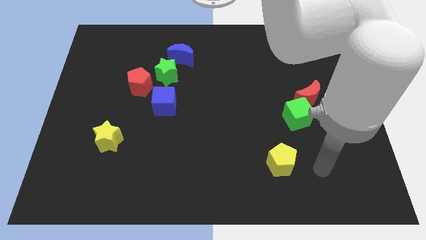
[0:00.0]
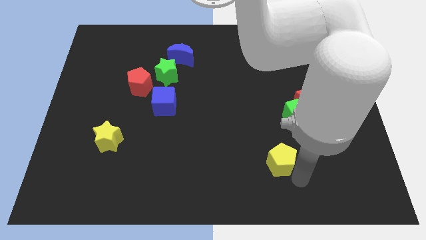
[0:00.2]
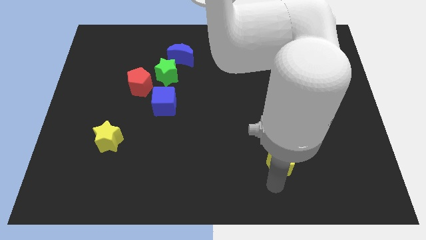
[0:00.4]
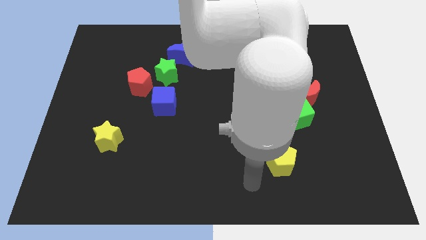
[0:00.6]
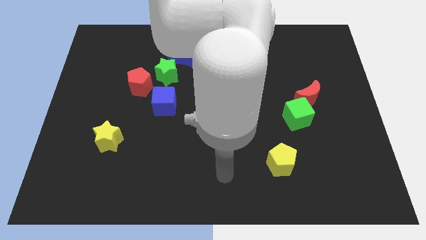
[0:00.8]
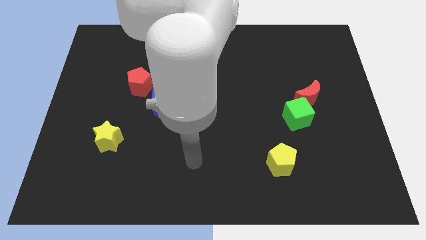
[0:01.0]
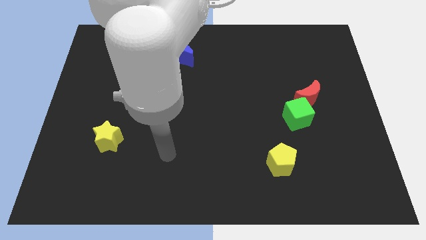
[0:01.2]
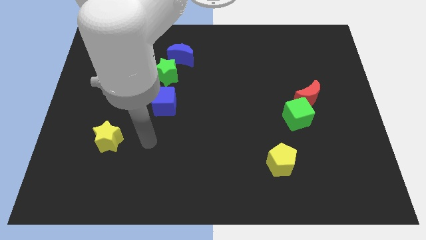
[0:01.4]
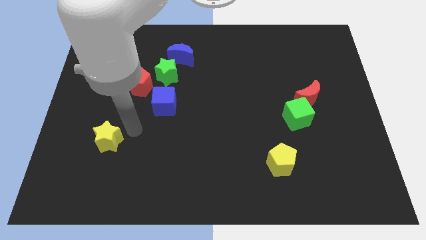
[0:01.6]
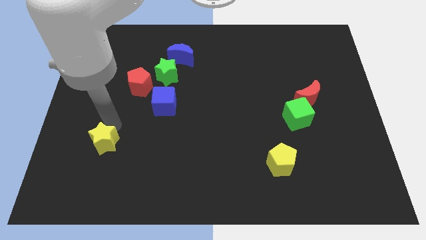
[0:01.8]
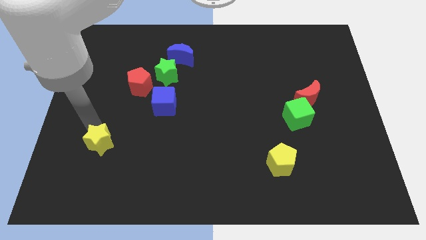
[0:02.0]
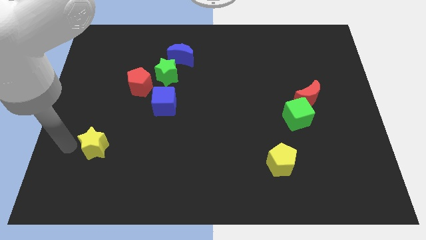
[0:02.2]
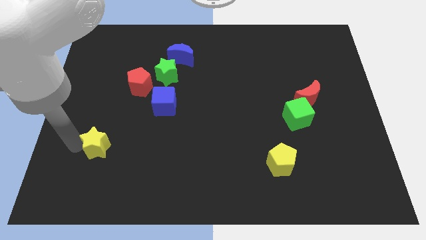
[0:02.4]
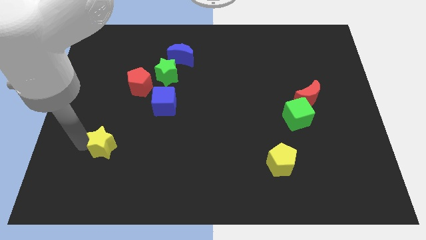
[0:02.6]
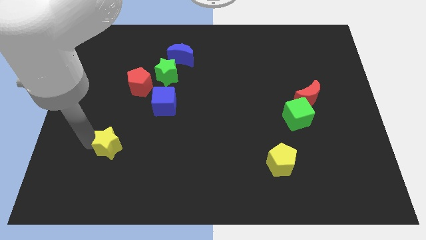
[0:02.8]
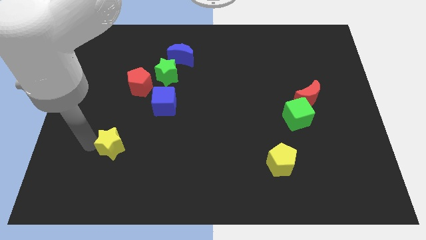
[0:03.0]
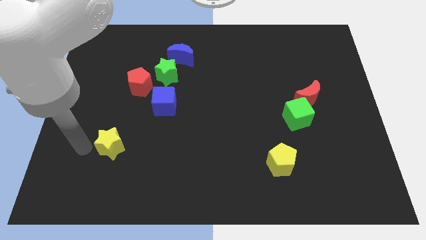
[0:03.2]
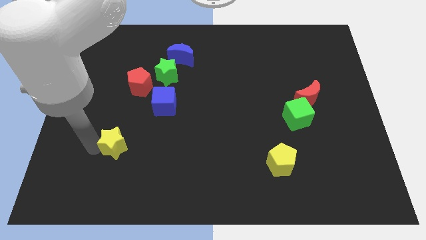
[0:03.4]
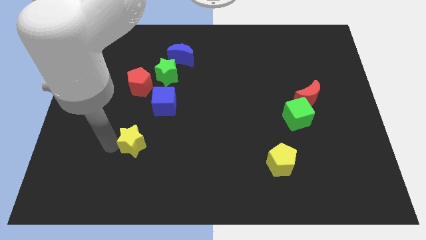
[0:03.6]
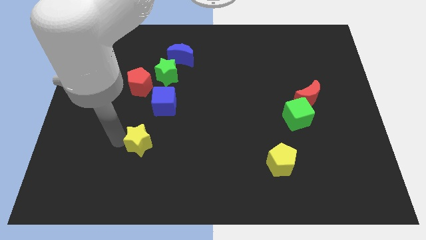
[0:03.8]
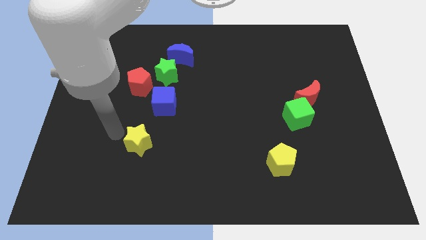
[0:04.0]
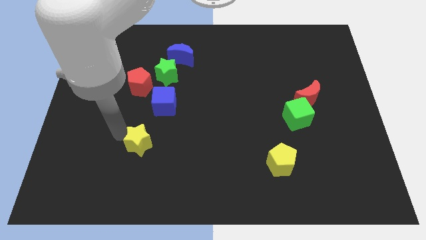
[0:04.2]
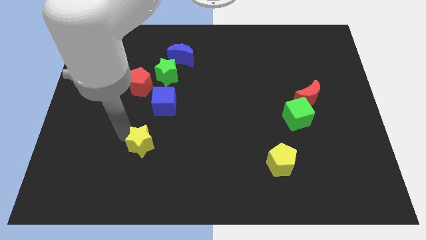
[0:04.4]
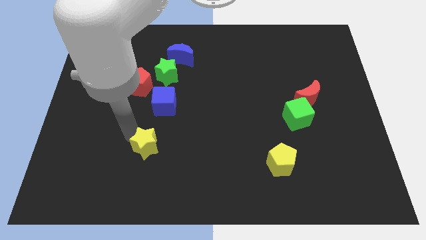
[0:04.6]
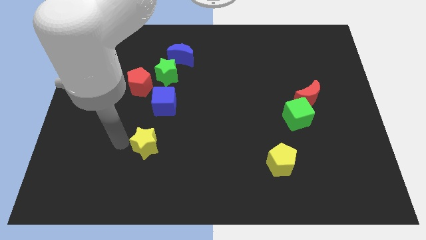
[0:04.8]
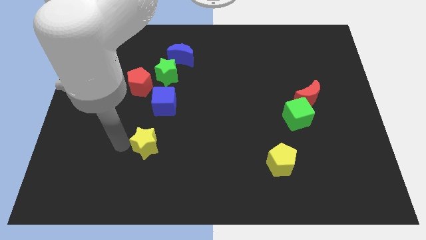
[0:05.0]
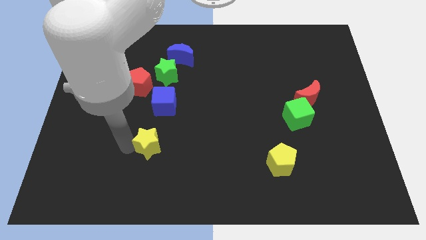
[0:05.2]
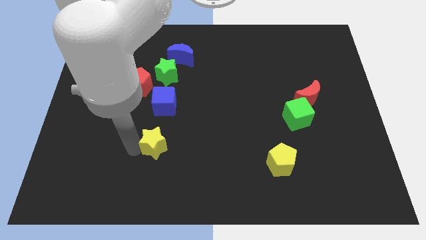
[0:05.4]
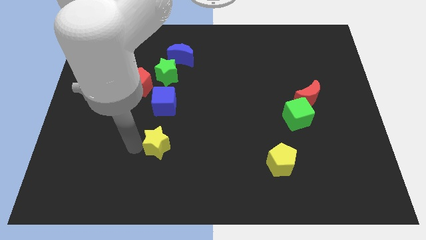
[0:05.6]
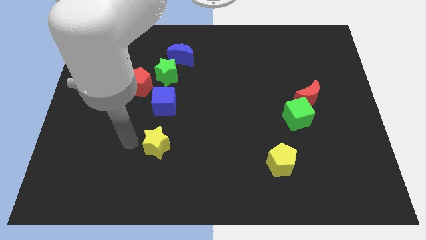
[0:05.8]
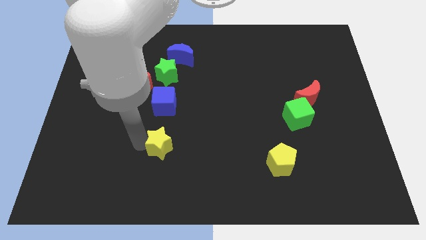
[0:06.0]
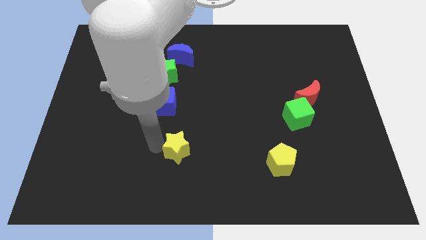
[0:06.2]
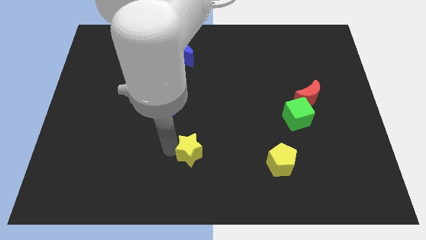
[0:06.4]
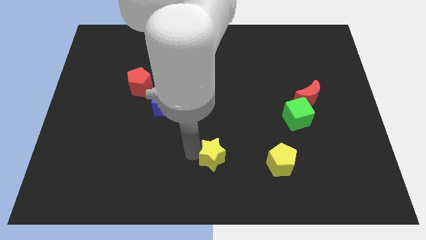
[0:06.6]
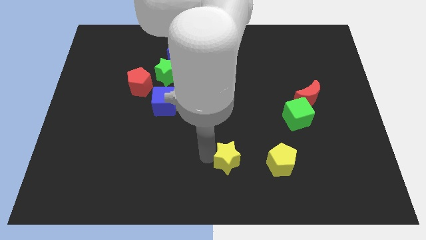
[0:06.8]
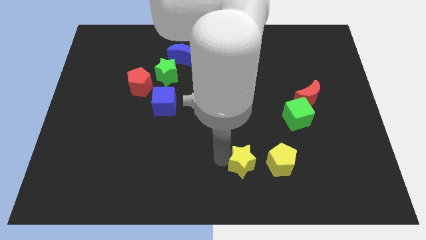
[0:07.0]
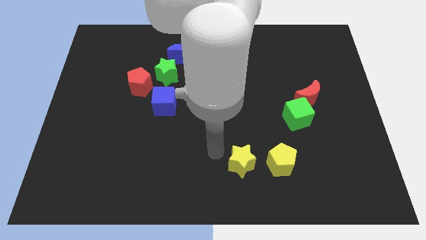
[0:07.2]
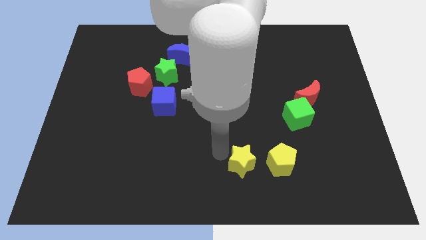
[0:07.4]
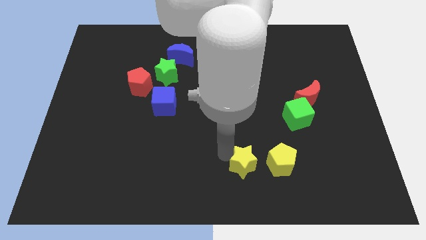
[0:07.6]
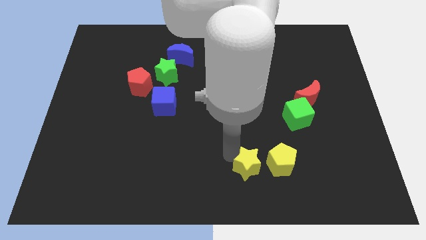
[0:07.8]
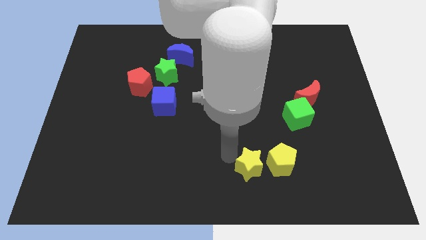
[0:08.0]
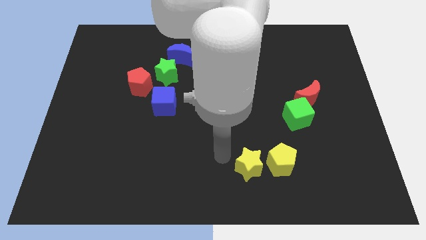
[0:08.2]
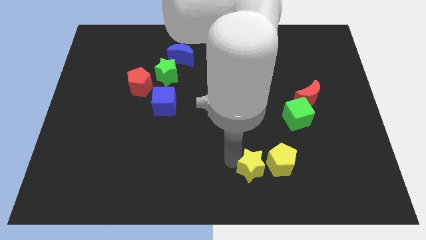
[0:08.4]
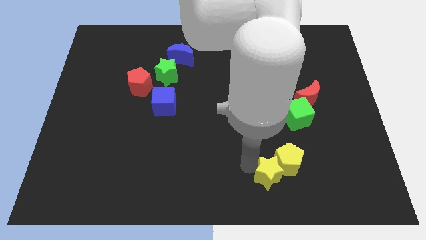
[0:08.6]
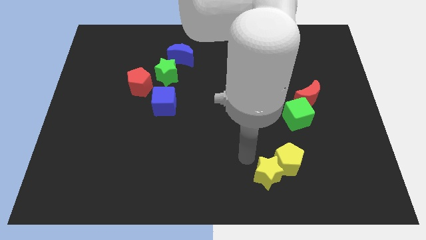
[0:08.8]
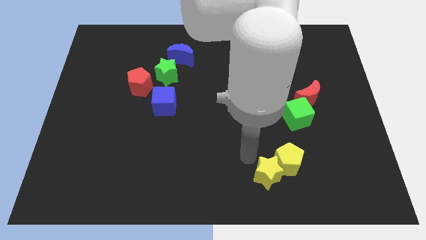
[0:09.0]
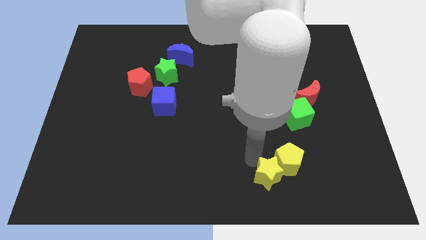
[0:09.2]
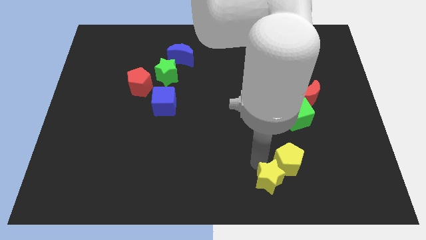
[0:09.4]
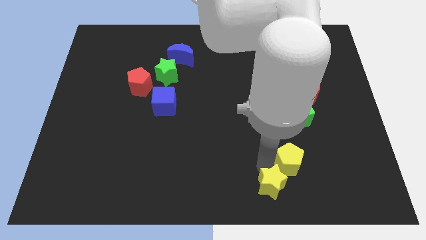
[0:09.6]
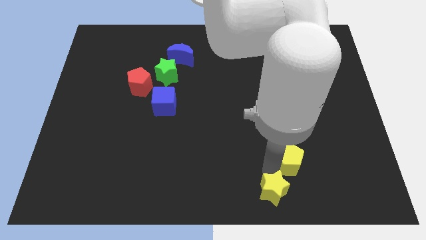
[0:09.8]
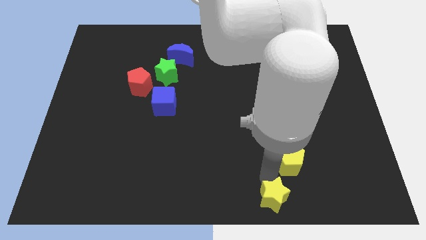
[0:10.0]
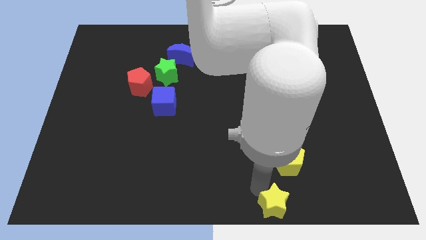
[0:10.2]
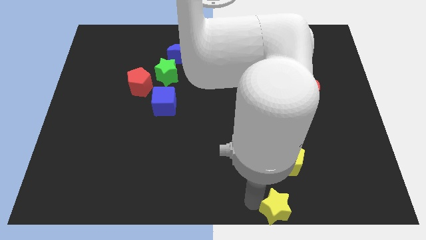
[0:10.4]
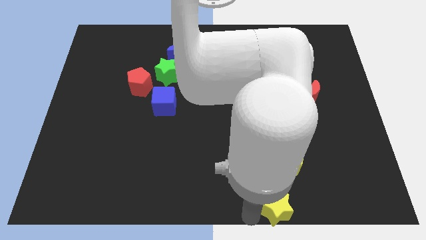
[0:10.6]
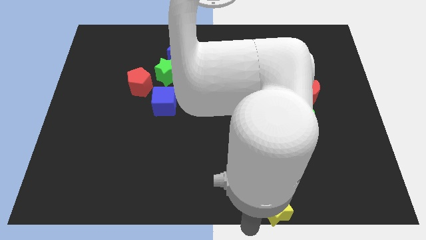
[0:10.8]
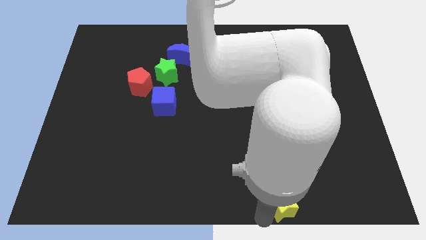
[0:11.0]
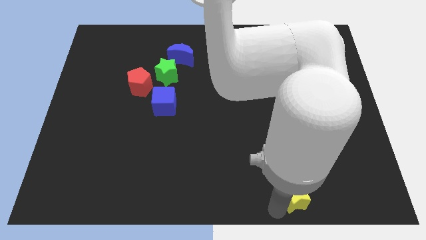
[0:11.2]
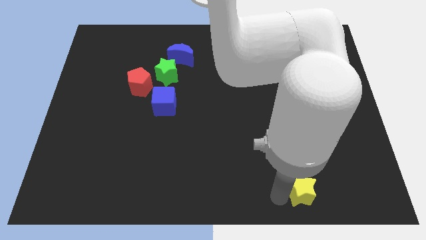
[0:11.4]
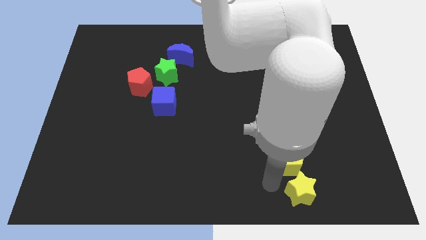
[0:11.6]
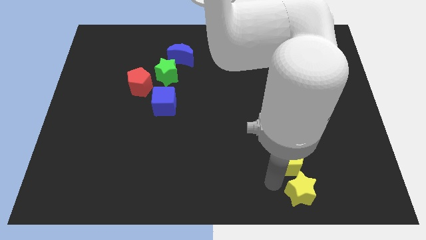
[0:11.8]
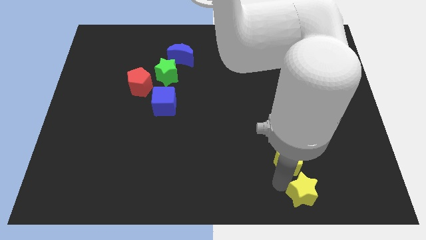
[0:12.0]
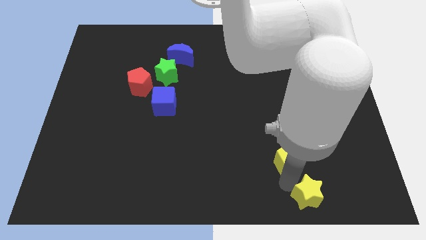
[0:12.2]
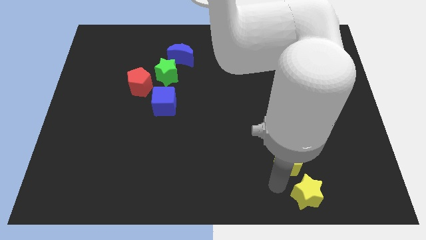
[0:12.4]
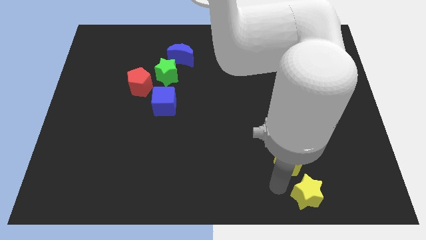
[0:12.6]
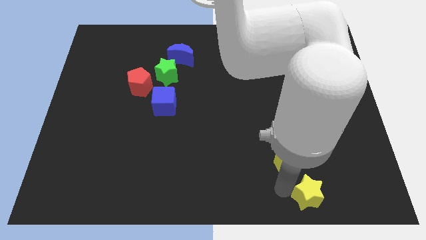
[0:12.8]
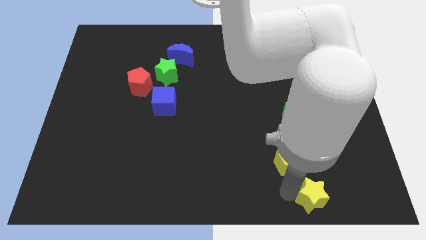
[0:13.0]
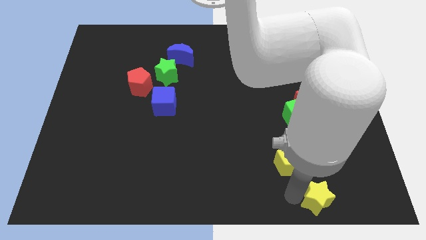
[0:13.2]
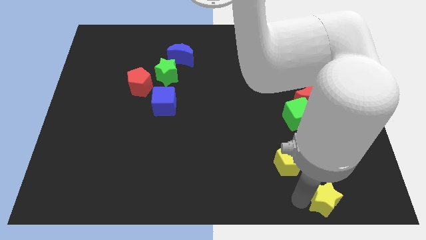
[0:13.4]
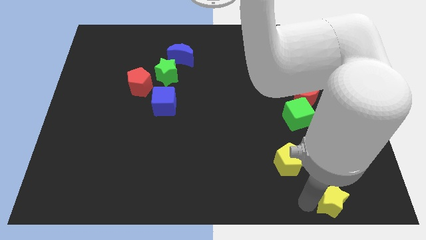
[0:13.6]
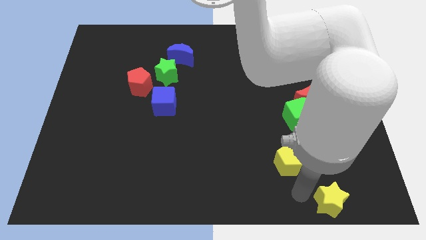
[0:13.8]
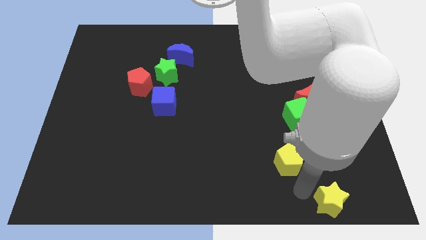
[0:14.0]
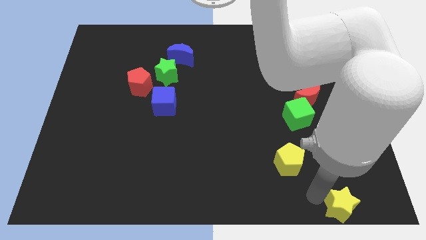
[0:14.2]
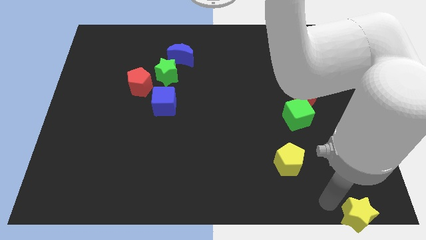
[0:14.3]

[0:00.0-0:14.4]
slide the yellow star to the lower right corner
